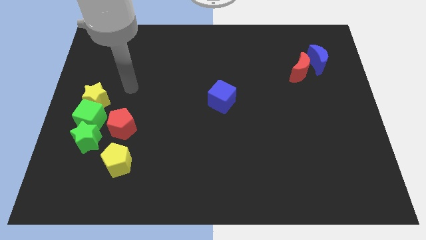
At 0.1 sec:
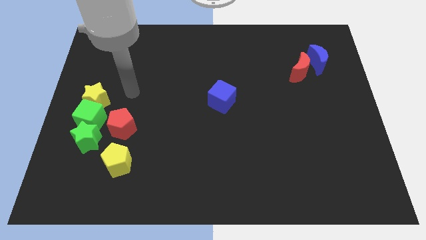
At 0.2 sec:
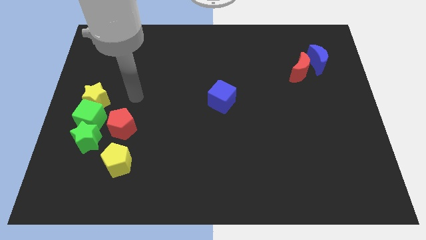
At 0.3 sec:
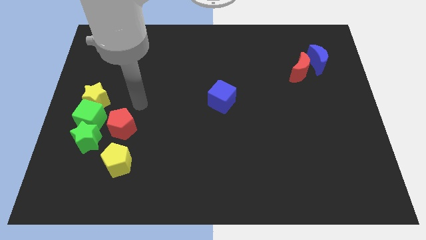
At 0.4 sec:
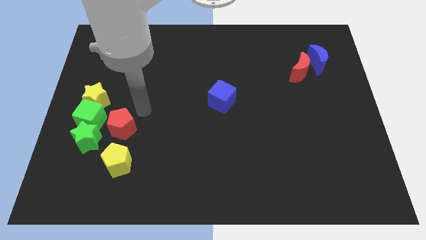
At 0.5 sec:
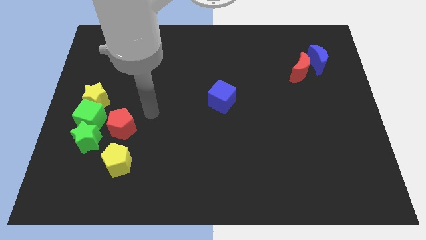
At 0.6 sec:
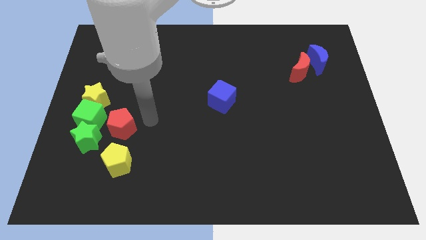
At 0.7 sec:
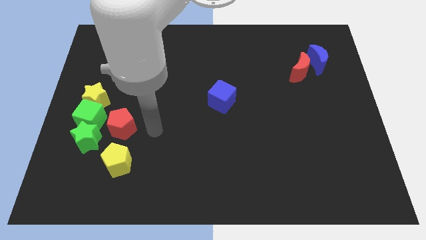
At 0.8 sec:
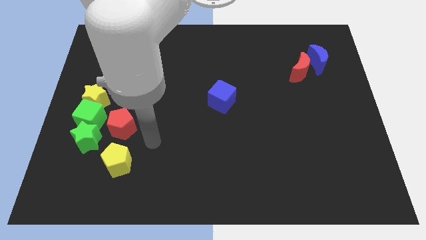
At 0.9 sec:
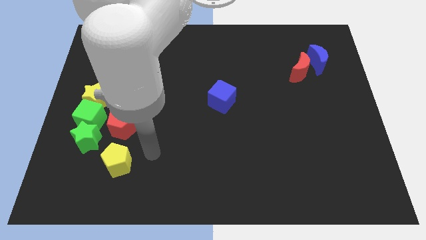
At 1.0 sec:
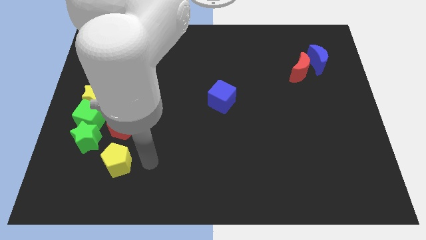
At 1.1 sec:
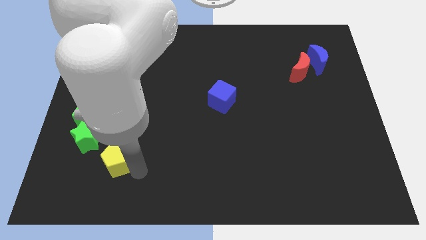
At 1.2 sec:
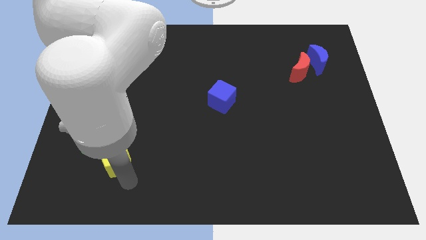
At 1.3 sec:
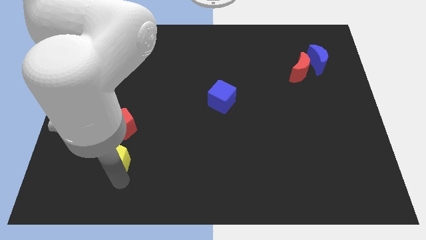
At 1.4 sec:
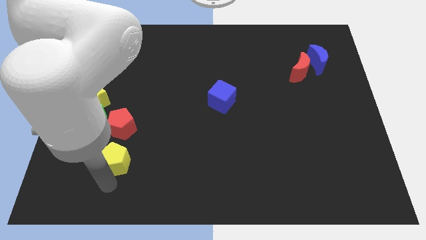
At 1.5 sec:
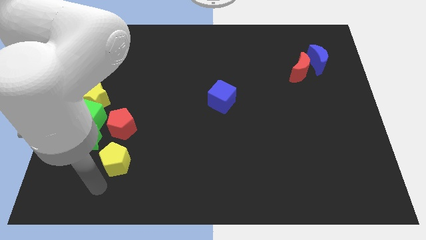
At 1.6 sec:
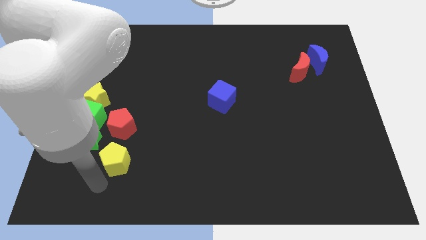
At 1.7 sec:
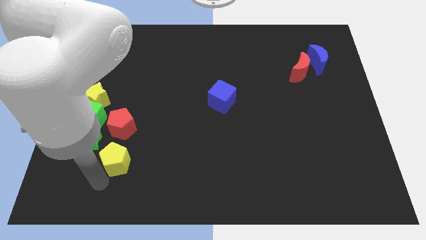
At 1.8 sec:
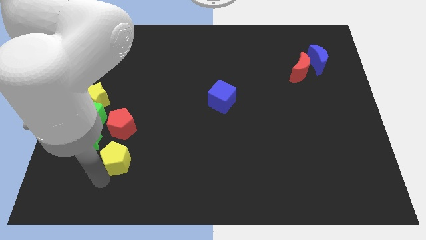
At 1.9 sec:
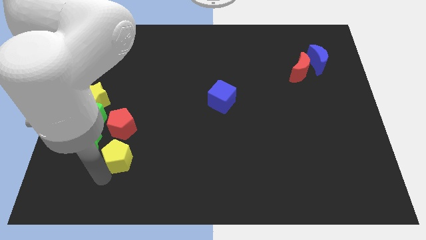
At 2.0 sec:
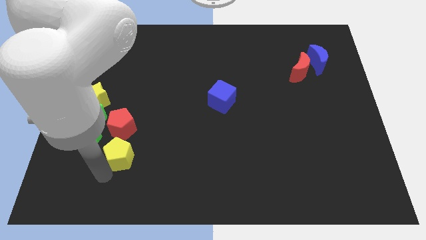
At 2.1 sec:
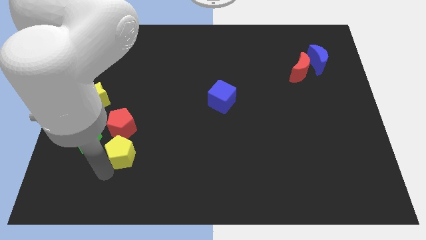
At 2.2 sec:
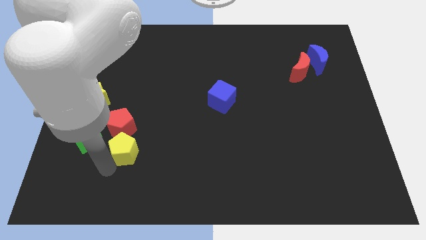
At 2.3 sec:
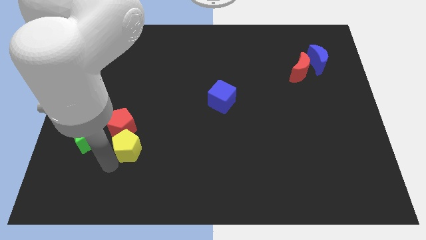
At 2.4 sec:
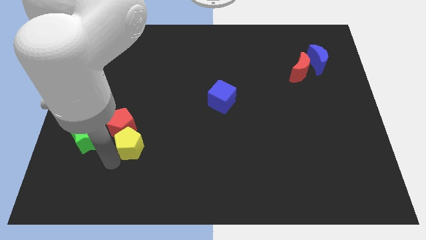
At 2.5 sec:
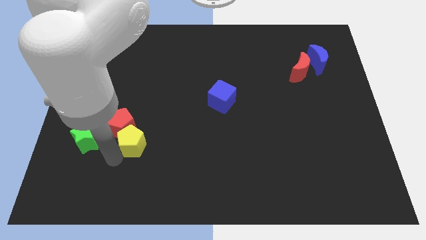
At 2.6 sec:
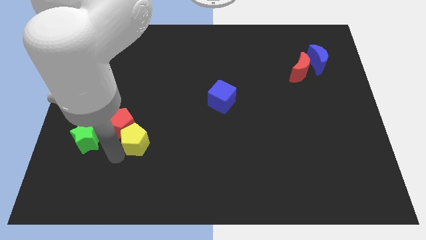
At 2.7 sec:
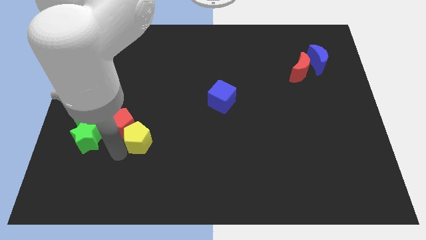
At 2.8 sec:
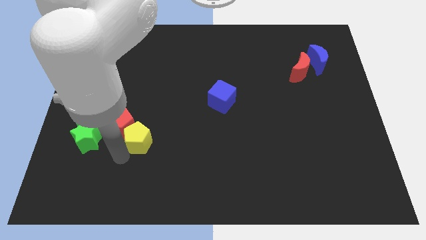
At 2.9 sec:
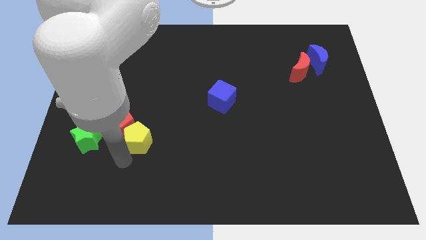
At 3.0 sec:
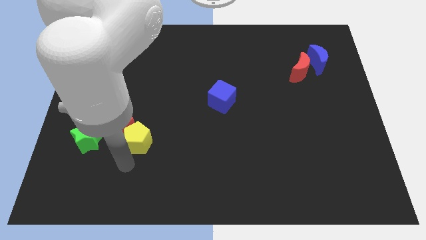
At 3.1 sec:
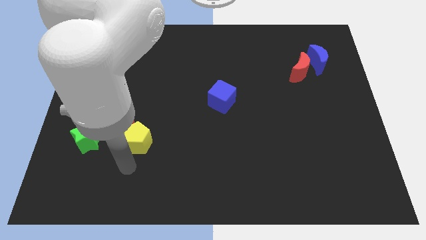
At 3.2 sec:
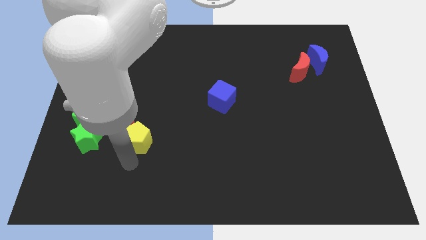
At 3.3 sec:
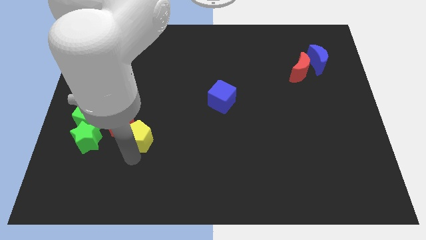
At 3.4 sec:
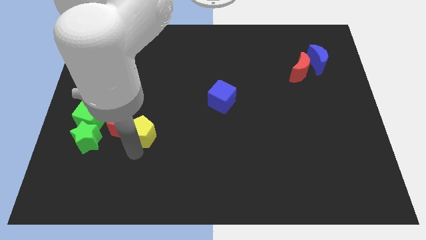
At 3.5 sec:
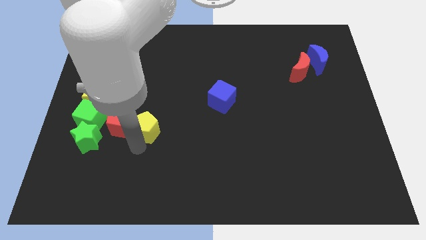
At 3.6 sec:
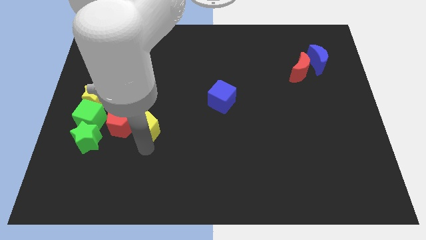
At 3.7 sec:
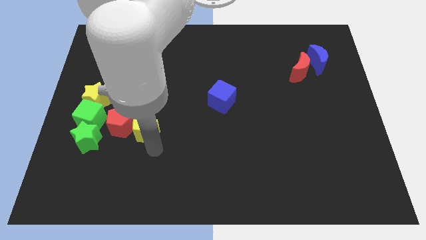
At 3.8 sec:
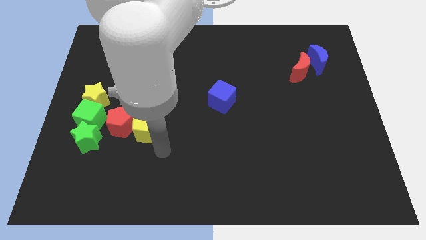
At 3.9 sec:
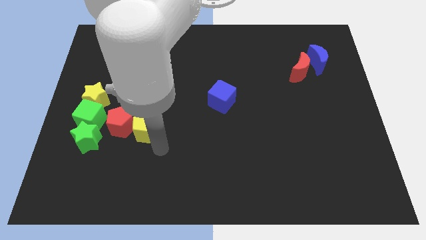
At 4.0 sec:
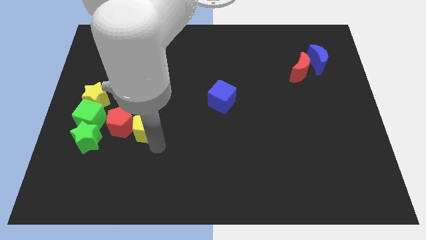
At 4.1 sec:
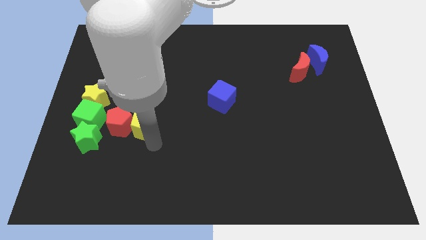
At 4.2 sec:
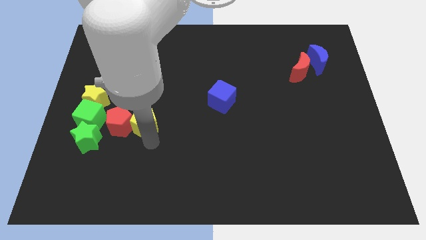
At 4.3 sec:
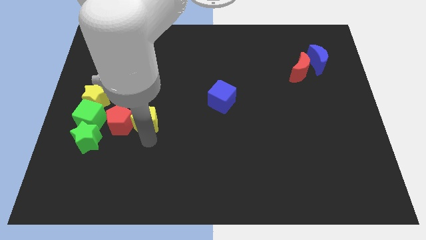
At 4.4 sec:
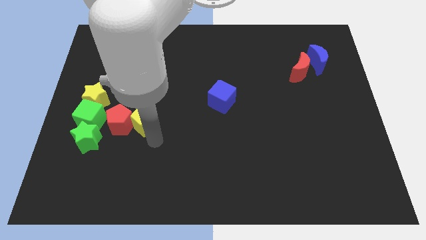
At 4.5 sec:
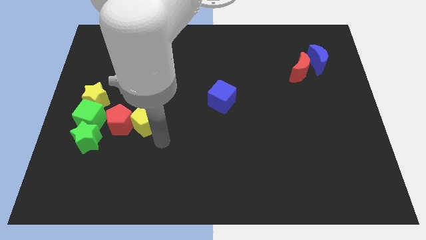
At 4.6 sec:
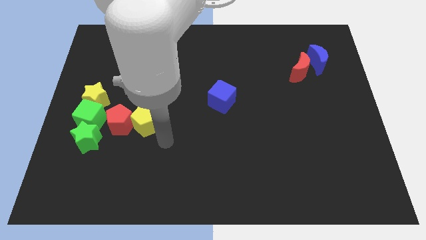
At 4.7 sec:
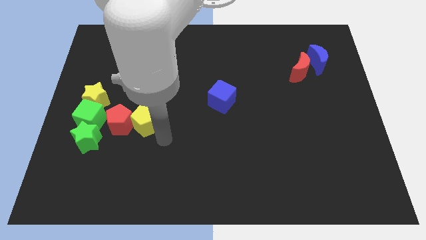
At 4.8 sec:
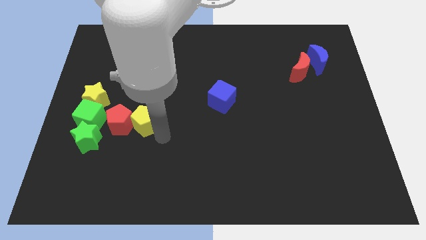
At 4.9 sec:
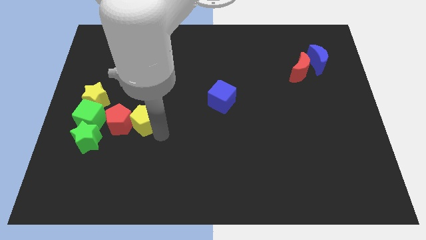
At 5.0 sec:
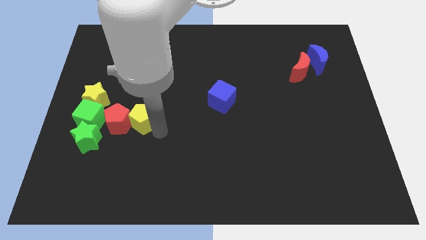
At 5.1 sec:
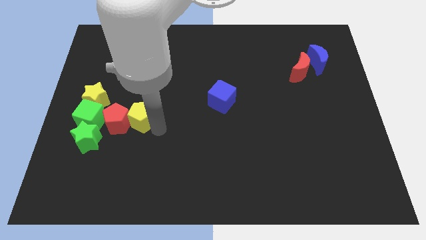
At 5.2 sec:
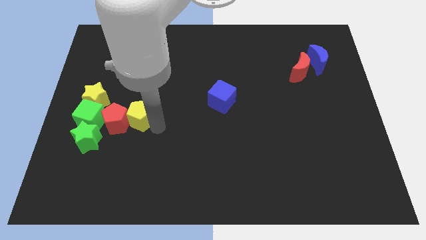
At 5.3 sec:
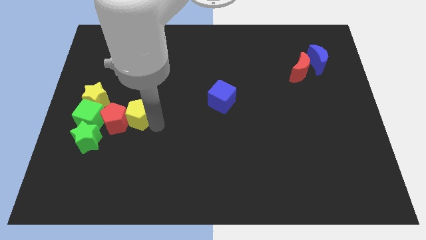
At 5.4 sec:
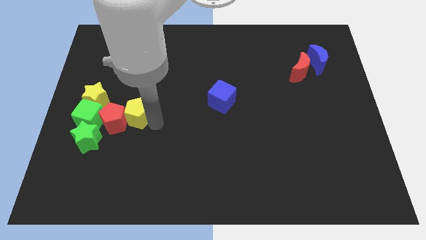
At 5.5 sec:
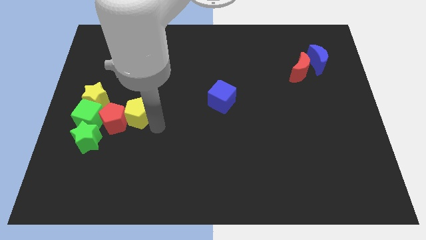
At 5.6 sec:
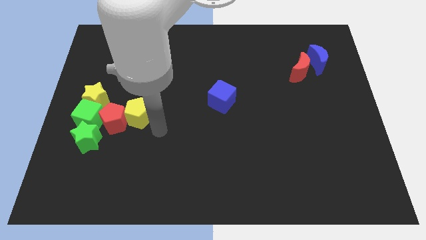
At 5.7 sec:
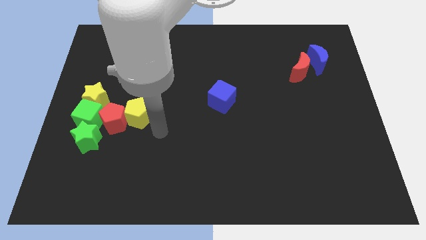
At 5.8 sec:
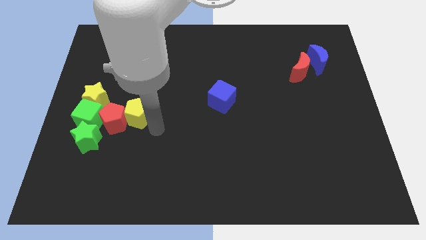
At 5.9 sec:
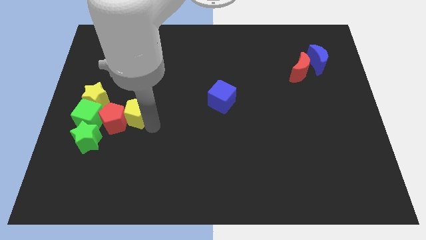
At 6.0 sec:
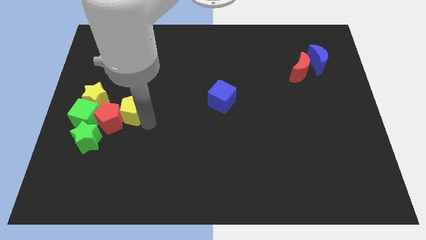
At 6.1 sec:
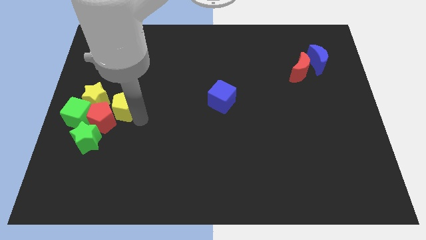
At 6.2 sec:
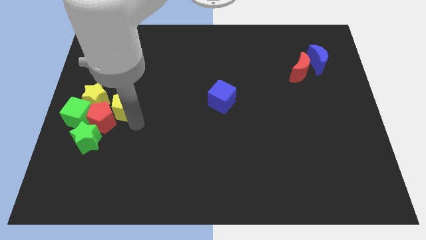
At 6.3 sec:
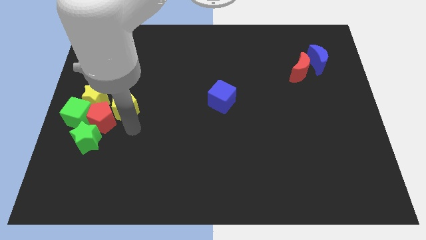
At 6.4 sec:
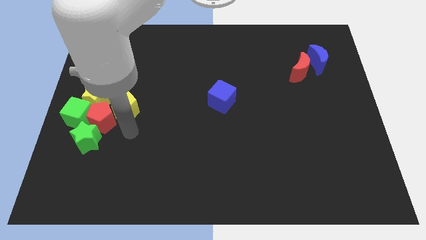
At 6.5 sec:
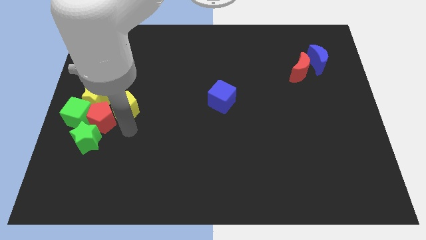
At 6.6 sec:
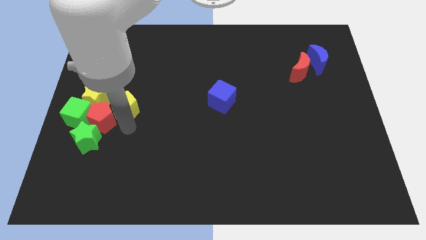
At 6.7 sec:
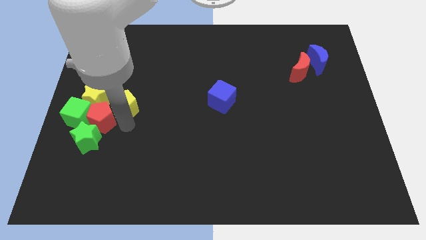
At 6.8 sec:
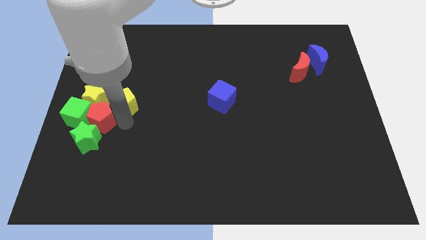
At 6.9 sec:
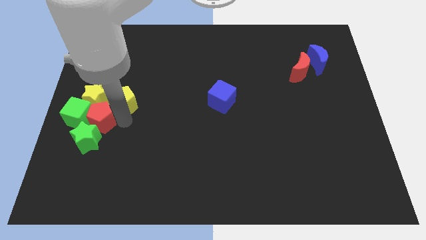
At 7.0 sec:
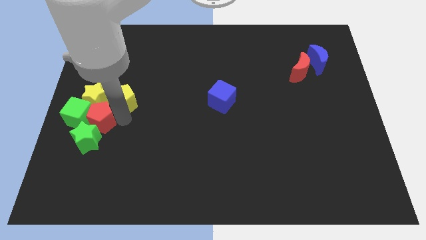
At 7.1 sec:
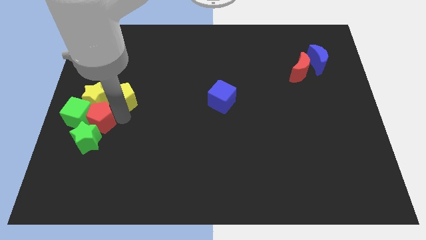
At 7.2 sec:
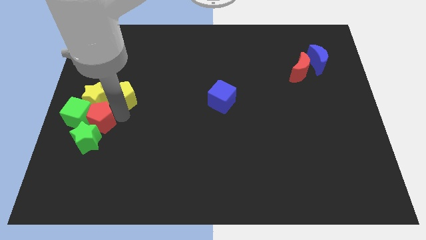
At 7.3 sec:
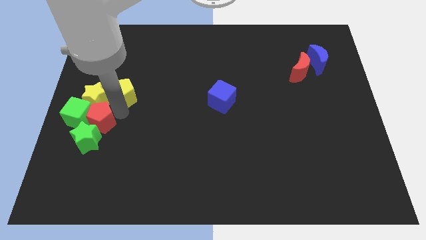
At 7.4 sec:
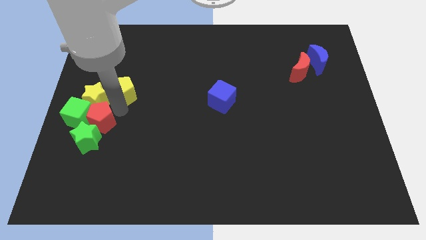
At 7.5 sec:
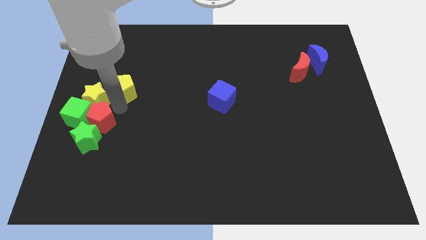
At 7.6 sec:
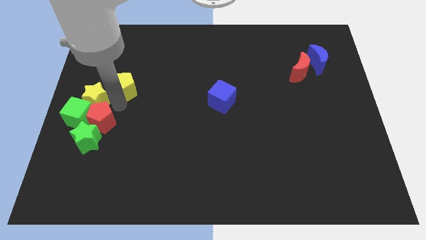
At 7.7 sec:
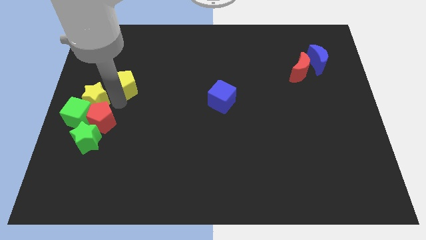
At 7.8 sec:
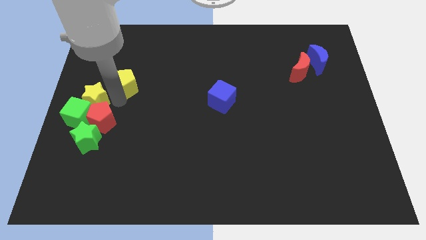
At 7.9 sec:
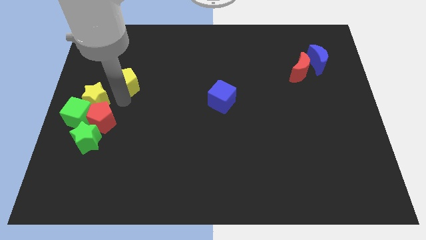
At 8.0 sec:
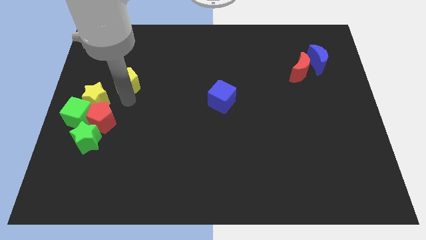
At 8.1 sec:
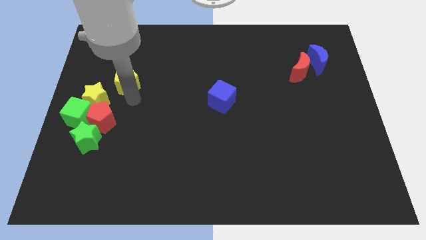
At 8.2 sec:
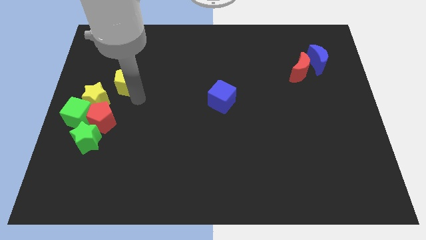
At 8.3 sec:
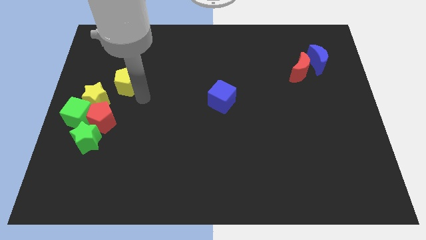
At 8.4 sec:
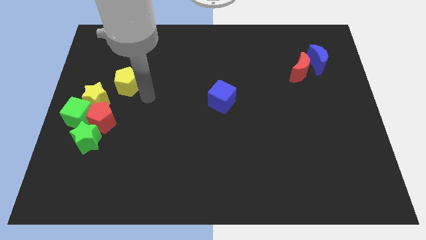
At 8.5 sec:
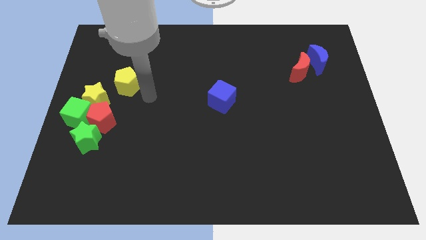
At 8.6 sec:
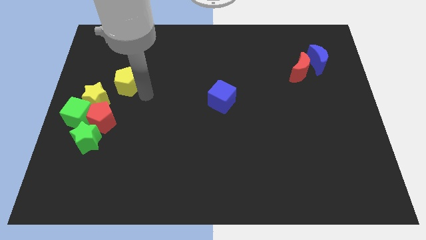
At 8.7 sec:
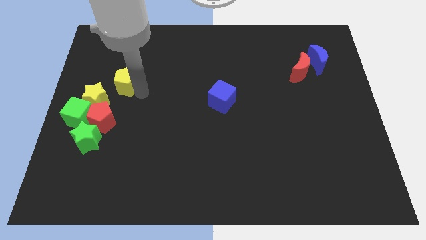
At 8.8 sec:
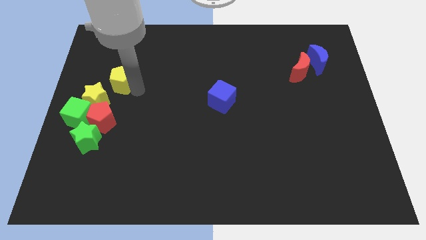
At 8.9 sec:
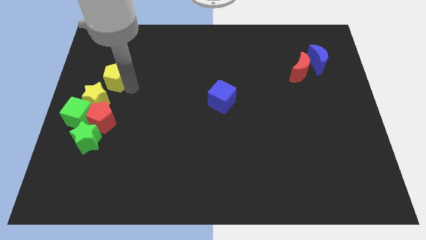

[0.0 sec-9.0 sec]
move the yellow pentagon to the top side of the yellow star
